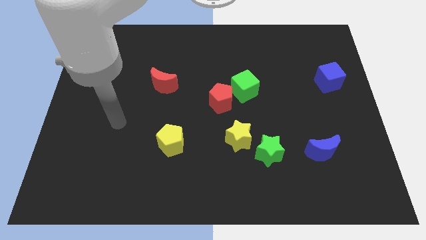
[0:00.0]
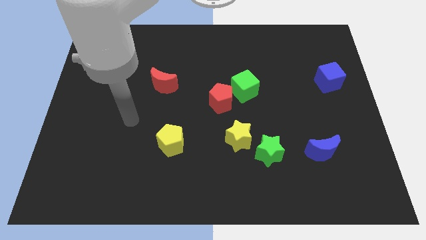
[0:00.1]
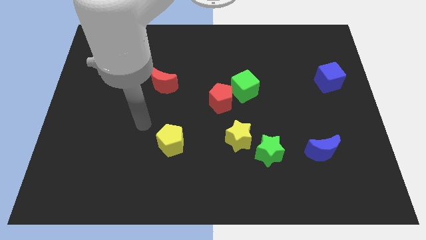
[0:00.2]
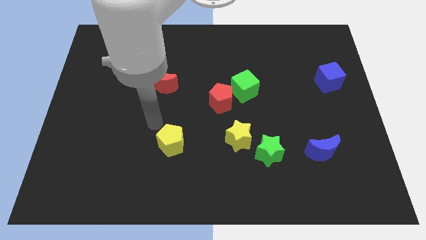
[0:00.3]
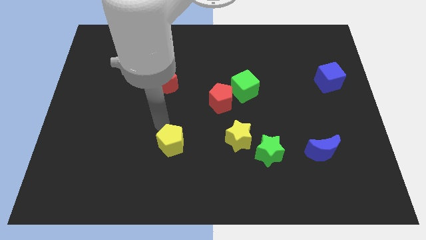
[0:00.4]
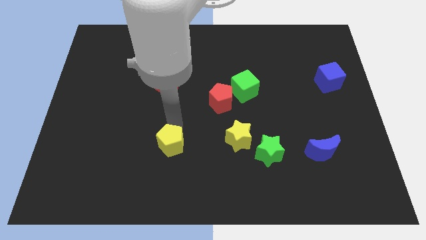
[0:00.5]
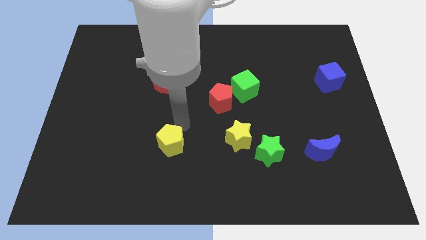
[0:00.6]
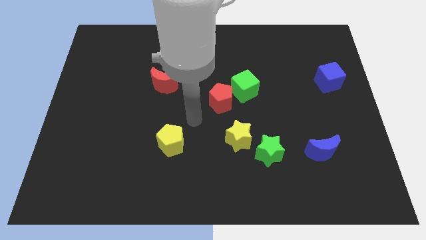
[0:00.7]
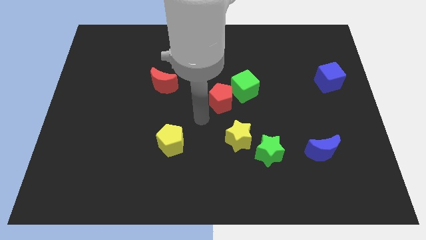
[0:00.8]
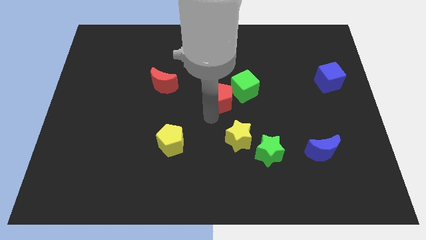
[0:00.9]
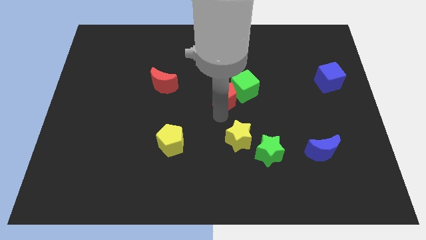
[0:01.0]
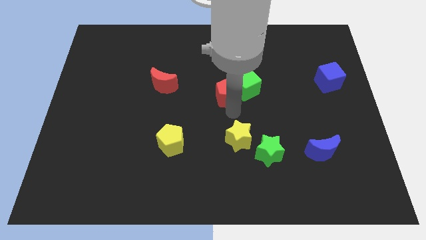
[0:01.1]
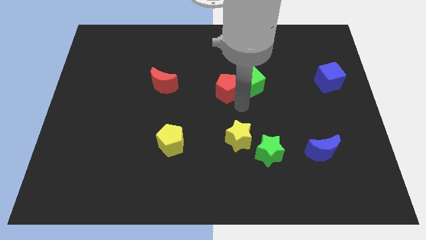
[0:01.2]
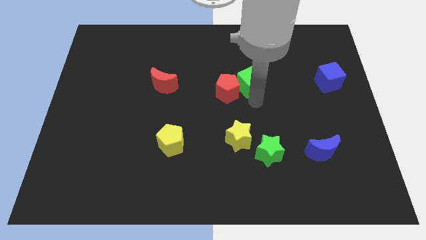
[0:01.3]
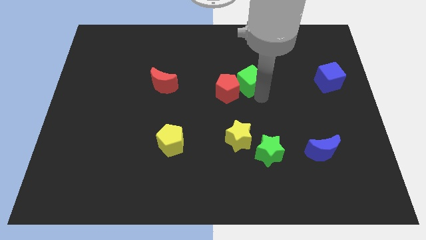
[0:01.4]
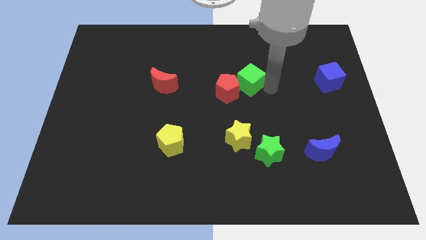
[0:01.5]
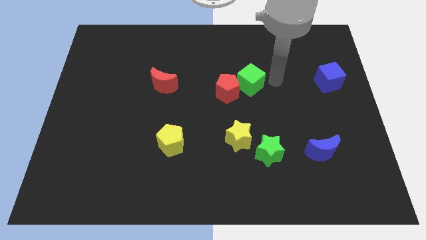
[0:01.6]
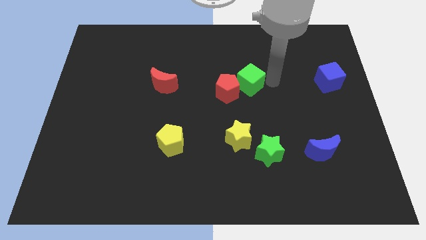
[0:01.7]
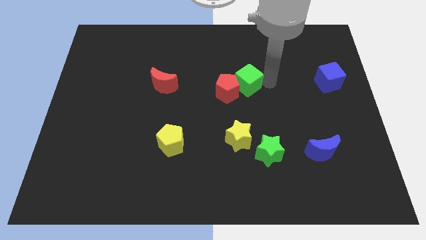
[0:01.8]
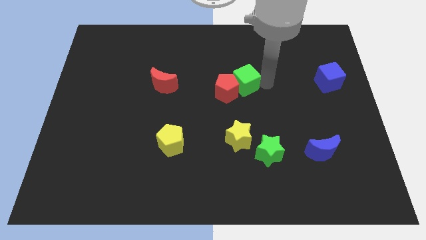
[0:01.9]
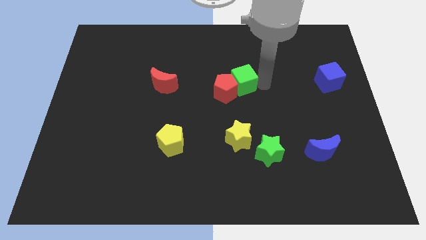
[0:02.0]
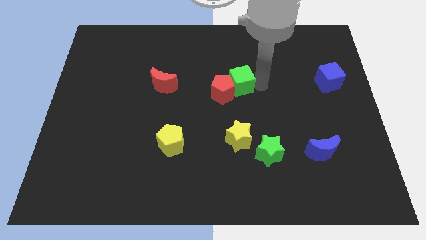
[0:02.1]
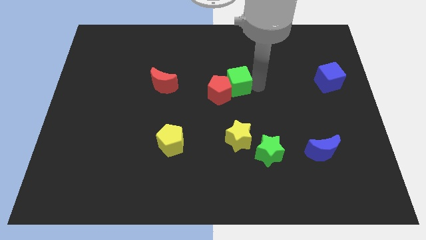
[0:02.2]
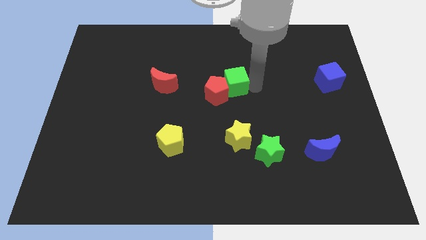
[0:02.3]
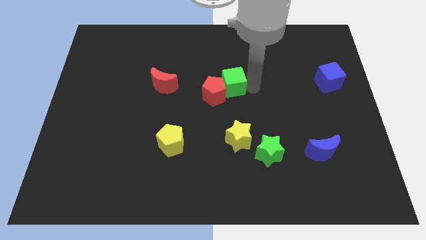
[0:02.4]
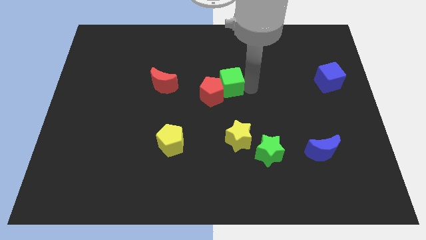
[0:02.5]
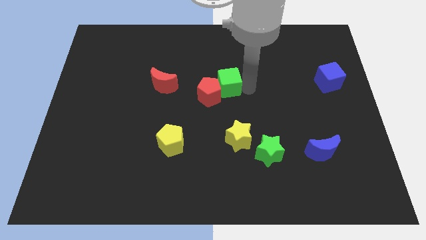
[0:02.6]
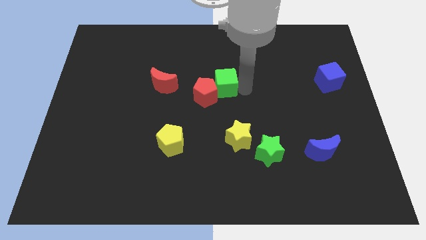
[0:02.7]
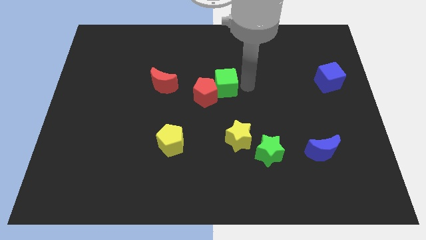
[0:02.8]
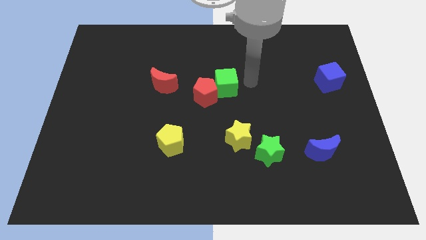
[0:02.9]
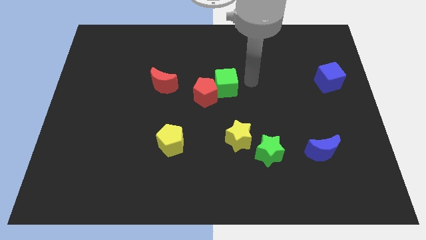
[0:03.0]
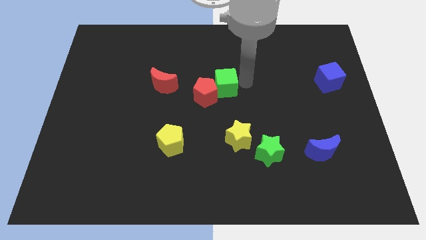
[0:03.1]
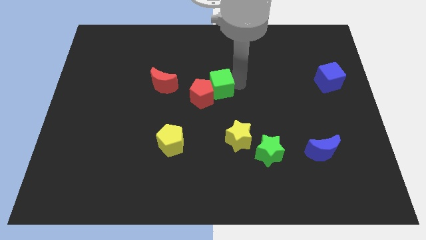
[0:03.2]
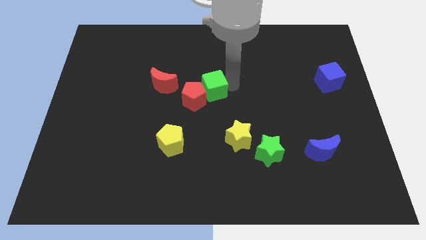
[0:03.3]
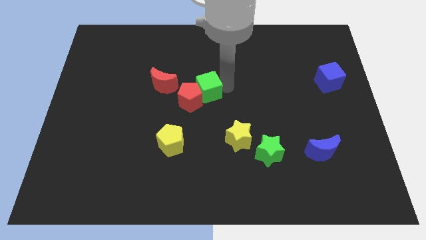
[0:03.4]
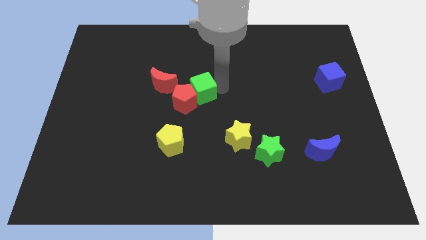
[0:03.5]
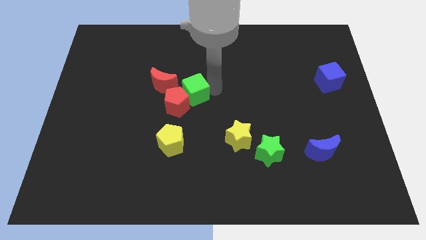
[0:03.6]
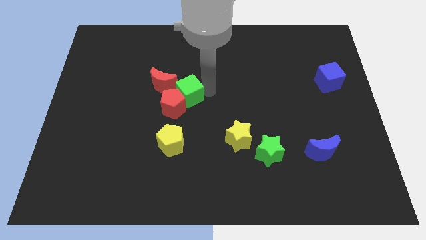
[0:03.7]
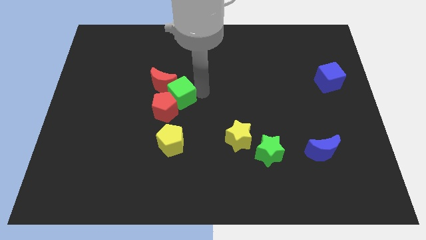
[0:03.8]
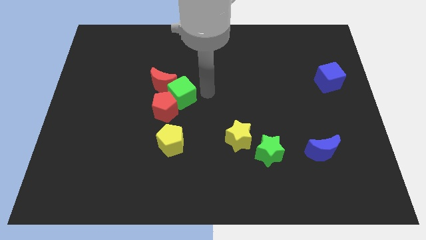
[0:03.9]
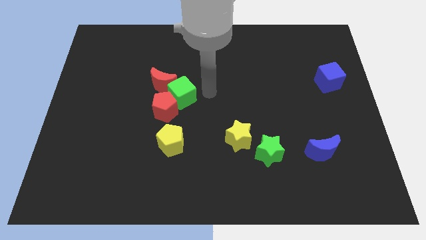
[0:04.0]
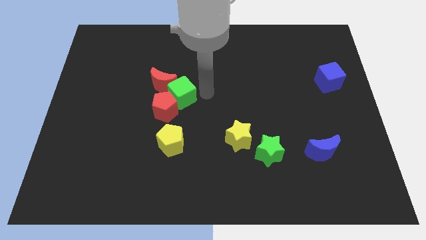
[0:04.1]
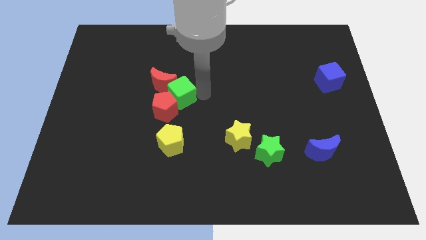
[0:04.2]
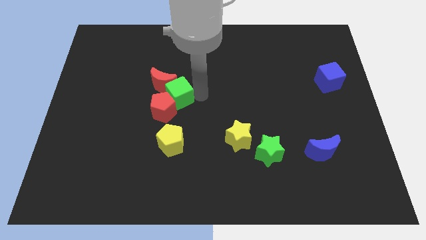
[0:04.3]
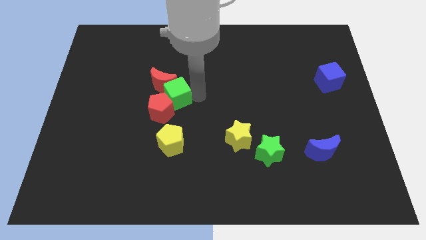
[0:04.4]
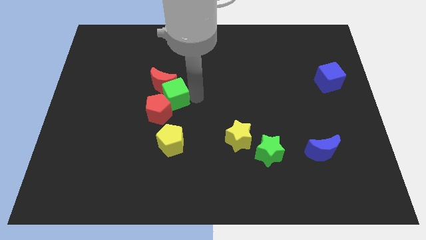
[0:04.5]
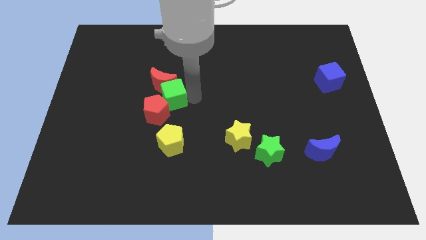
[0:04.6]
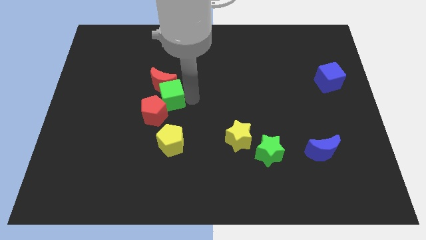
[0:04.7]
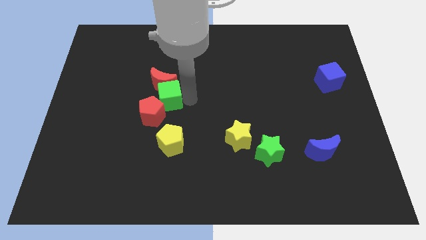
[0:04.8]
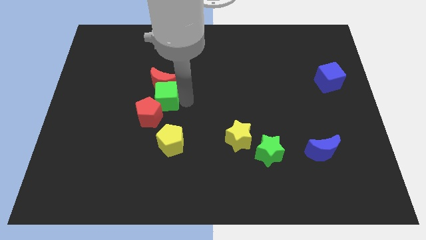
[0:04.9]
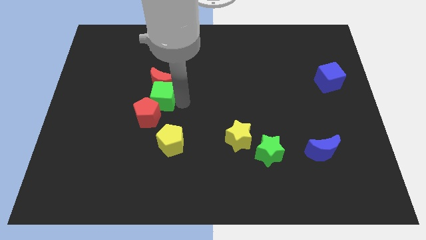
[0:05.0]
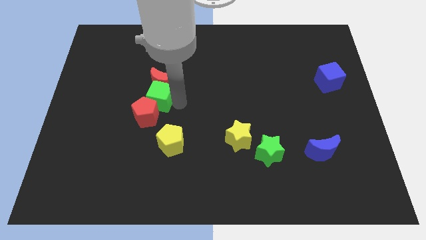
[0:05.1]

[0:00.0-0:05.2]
slide the green cube to the left

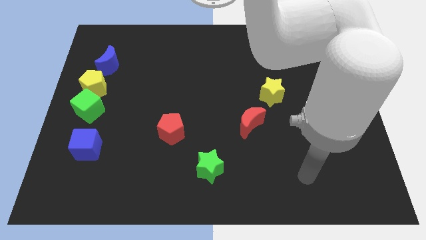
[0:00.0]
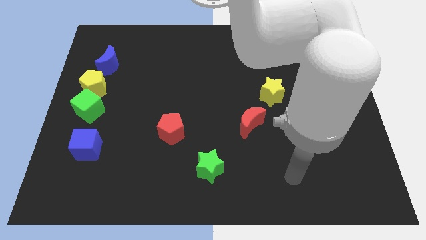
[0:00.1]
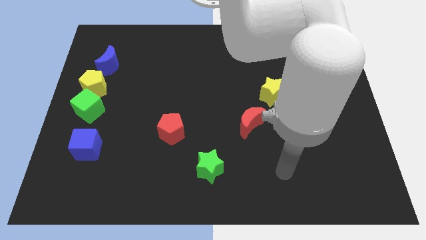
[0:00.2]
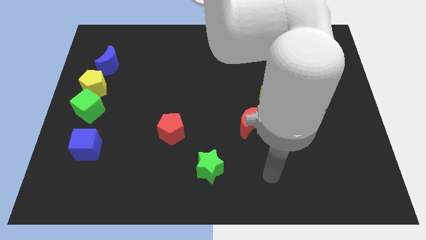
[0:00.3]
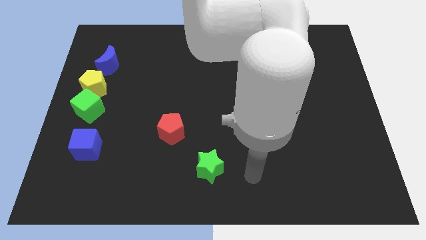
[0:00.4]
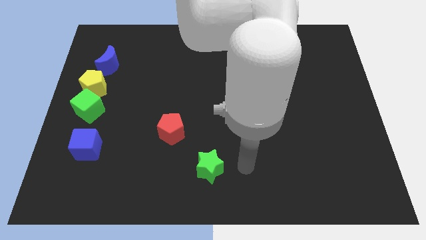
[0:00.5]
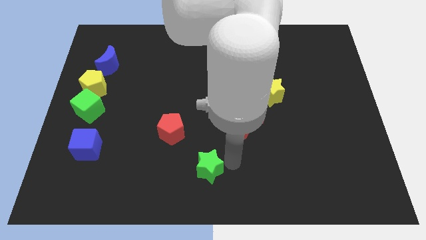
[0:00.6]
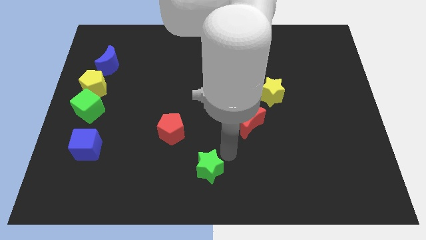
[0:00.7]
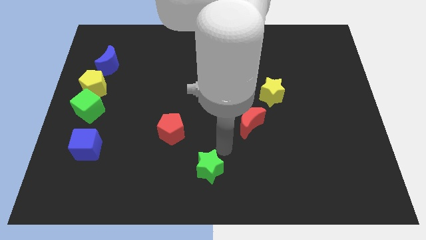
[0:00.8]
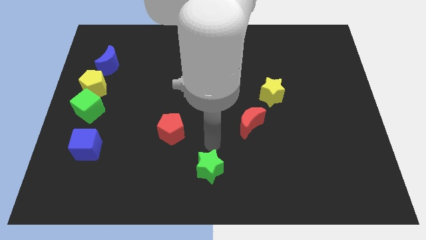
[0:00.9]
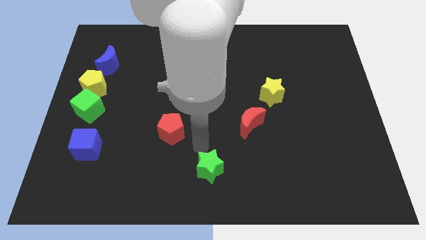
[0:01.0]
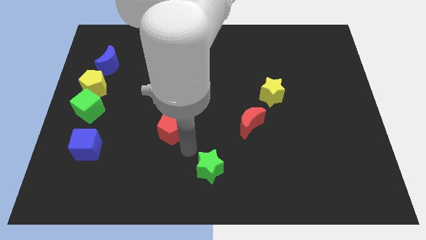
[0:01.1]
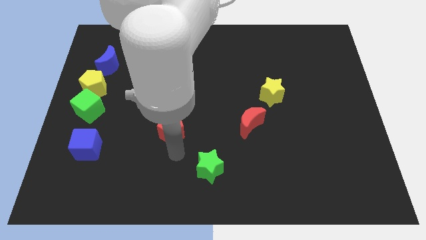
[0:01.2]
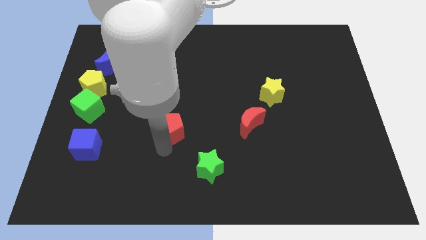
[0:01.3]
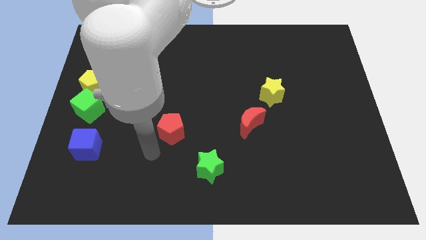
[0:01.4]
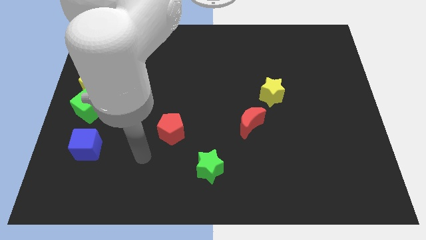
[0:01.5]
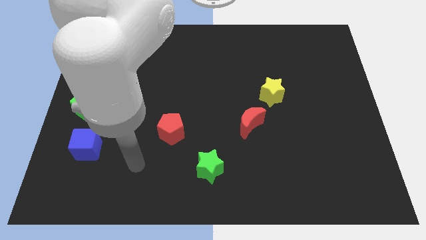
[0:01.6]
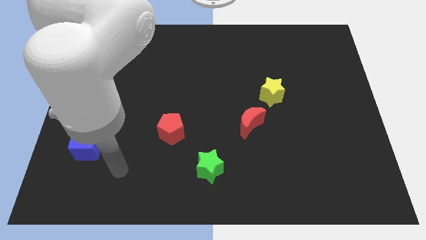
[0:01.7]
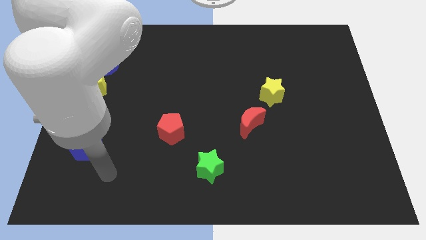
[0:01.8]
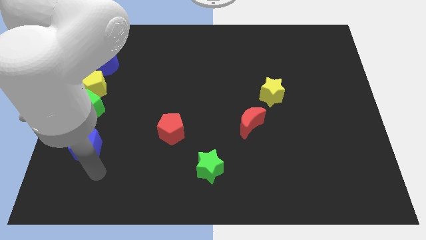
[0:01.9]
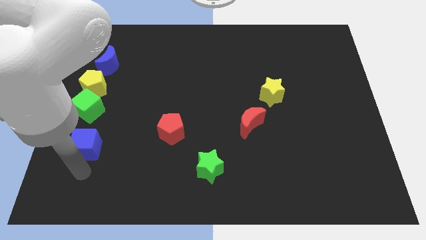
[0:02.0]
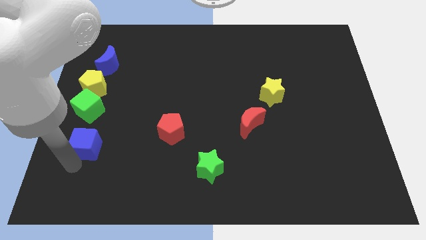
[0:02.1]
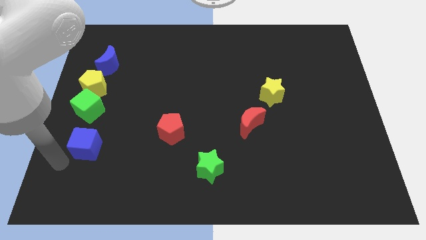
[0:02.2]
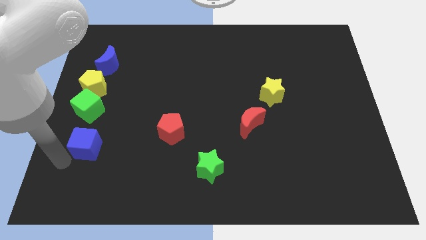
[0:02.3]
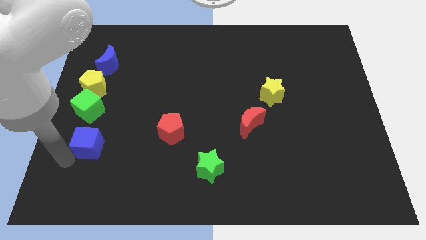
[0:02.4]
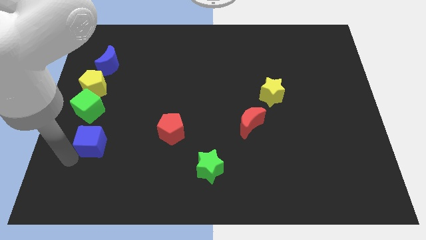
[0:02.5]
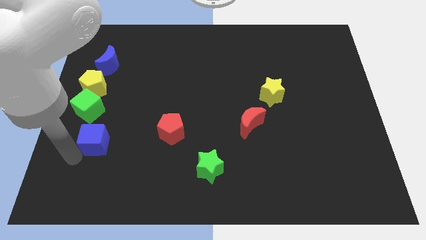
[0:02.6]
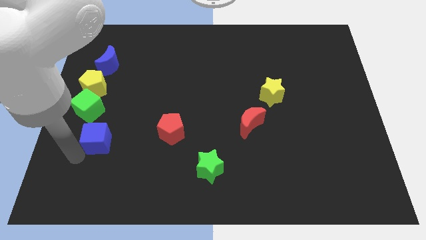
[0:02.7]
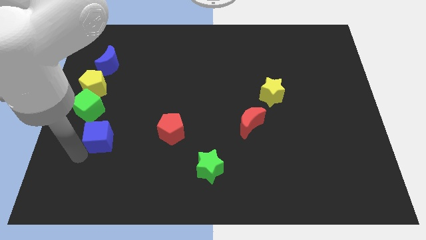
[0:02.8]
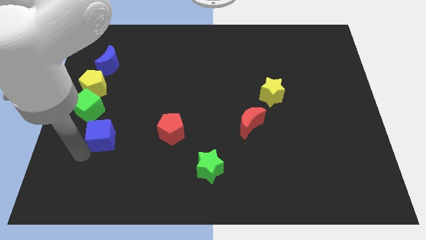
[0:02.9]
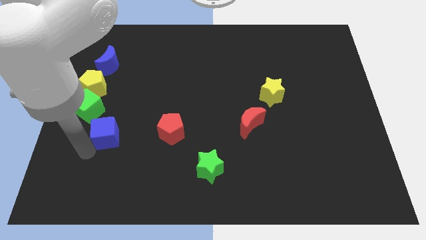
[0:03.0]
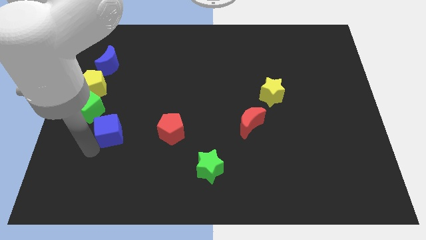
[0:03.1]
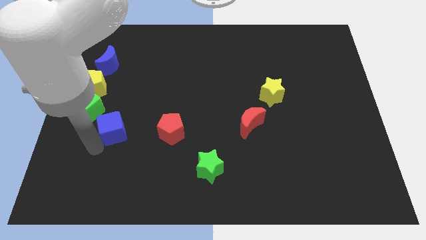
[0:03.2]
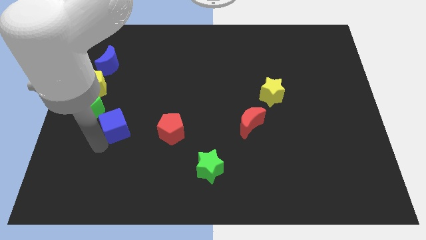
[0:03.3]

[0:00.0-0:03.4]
push the blue cube a little upwards and then right
